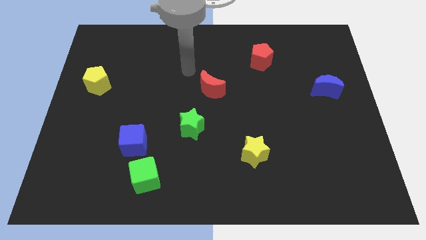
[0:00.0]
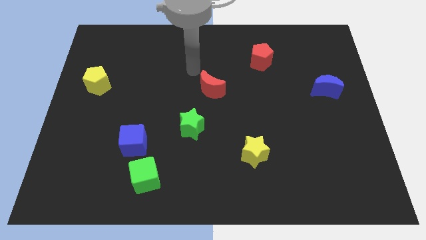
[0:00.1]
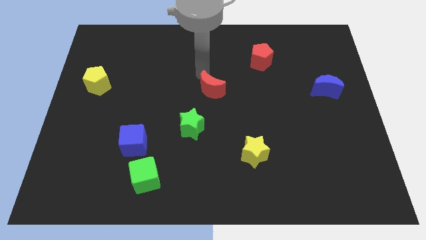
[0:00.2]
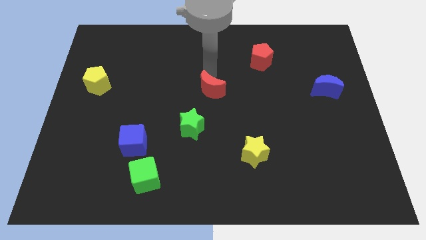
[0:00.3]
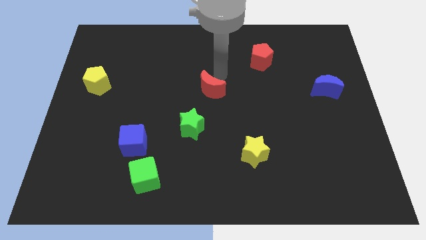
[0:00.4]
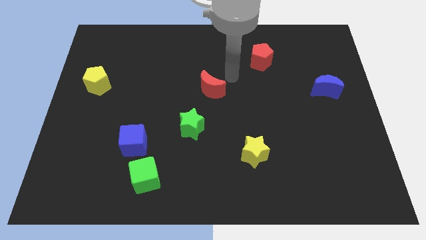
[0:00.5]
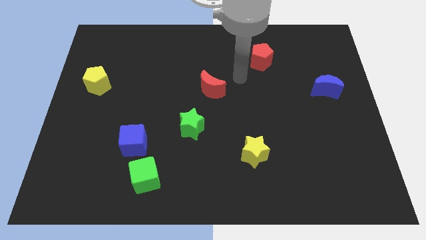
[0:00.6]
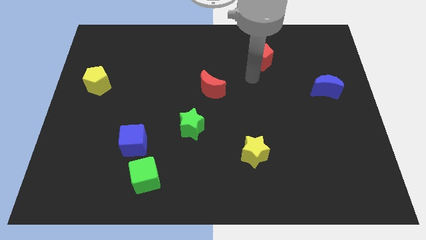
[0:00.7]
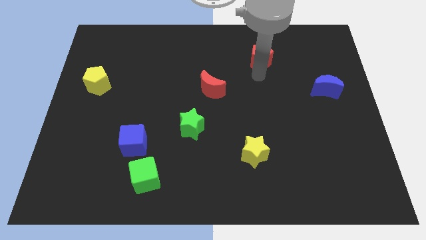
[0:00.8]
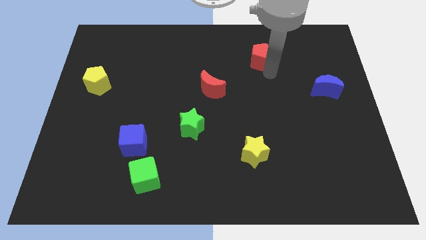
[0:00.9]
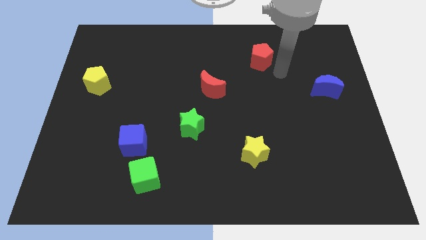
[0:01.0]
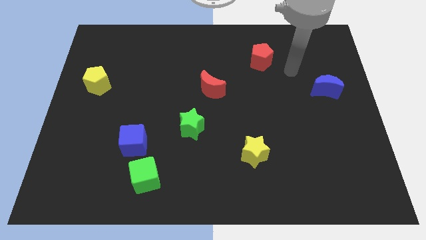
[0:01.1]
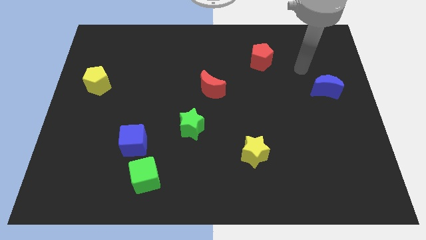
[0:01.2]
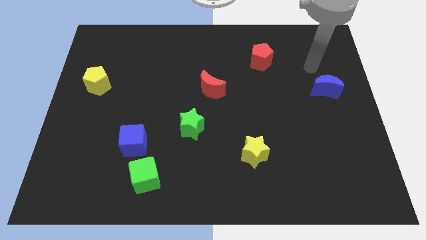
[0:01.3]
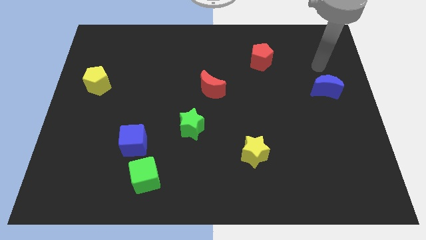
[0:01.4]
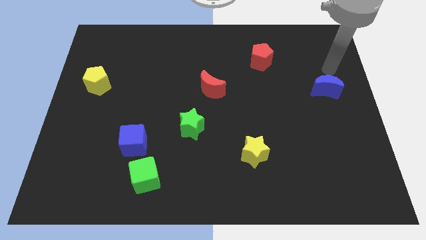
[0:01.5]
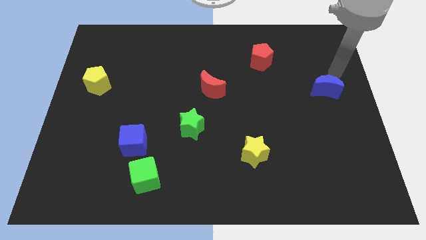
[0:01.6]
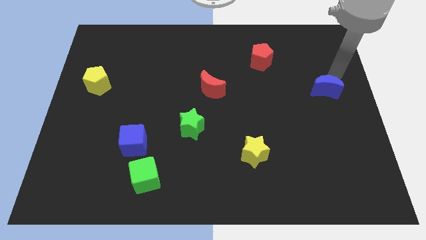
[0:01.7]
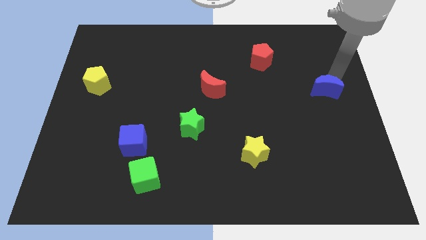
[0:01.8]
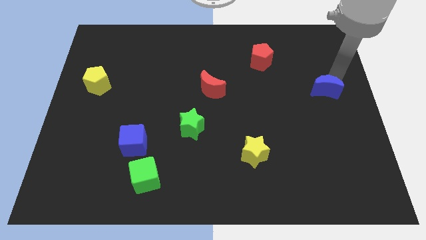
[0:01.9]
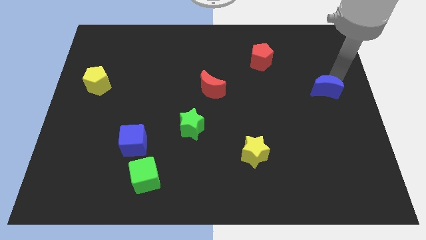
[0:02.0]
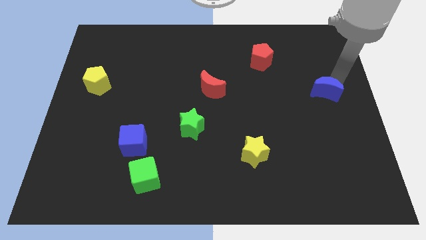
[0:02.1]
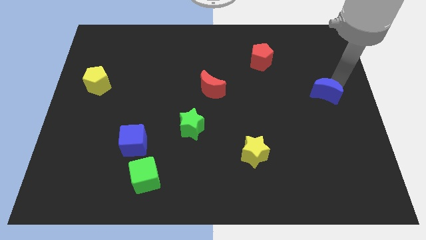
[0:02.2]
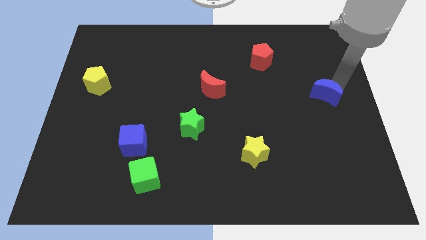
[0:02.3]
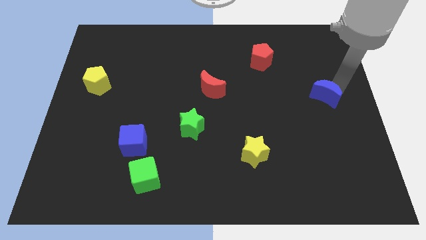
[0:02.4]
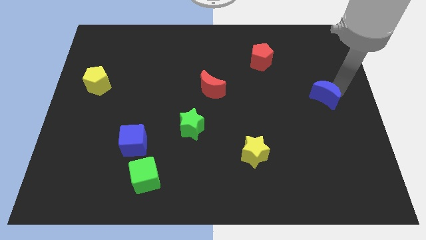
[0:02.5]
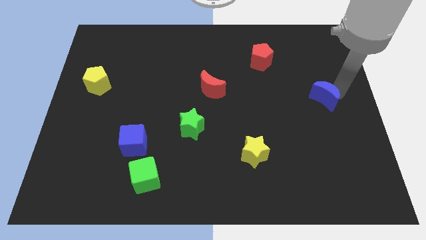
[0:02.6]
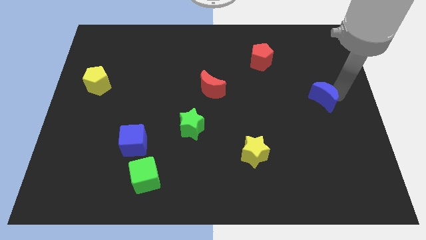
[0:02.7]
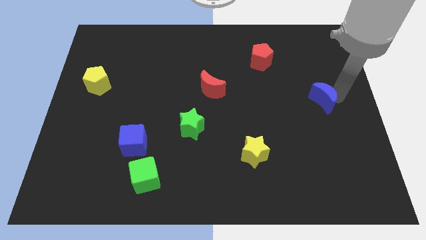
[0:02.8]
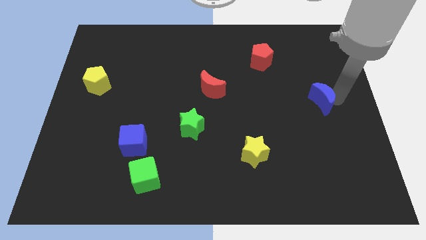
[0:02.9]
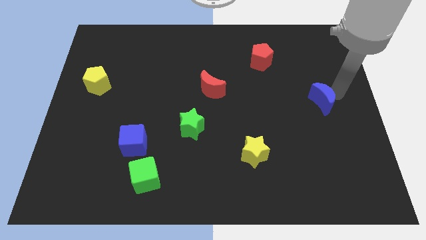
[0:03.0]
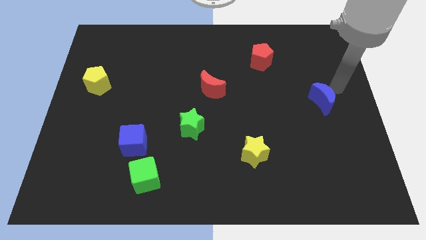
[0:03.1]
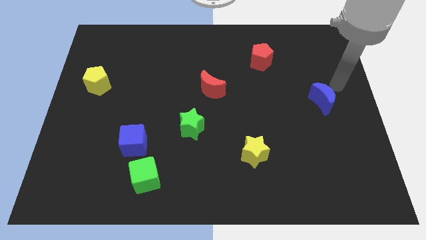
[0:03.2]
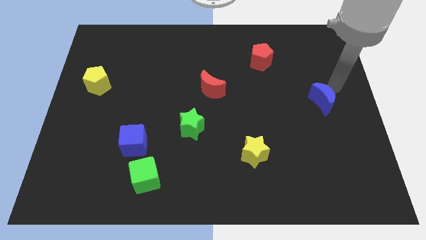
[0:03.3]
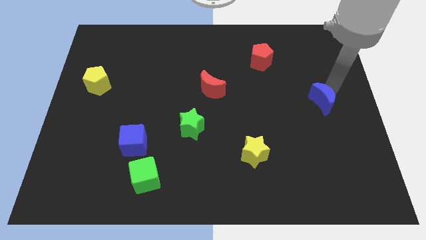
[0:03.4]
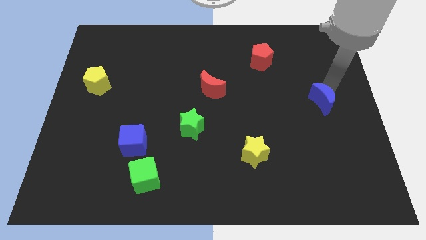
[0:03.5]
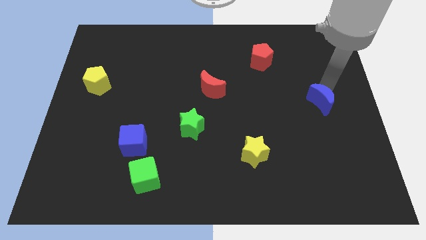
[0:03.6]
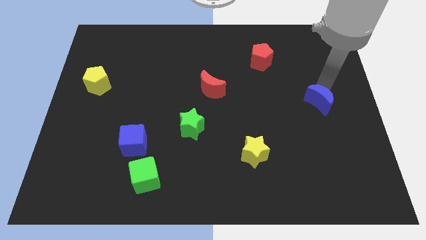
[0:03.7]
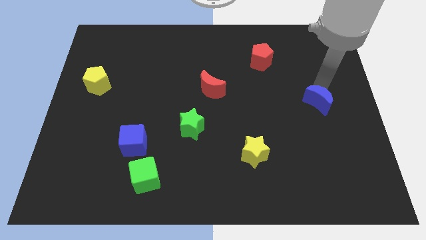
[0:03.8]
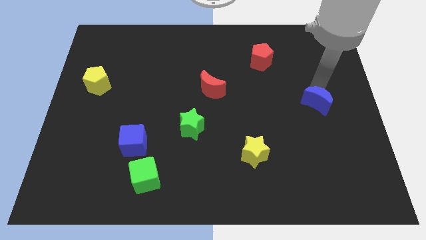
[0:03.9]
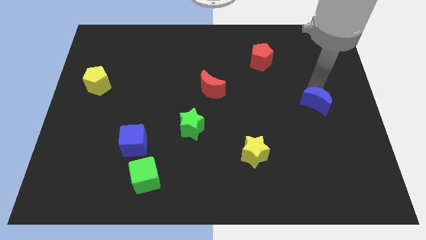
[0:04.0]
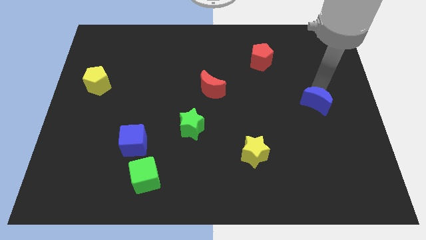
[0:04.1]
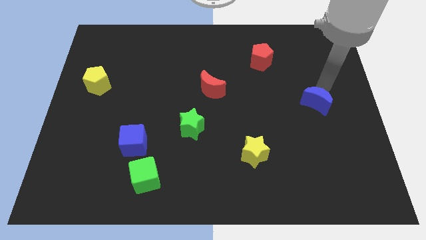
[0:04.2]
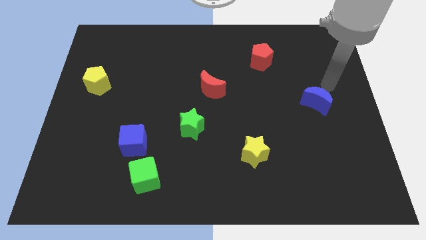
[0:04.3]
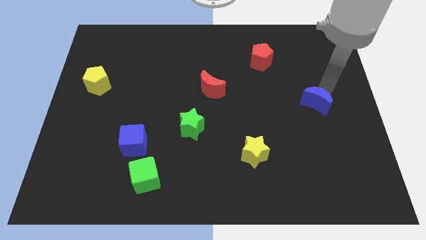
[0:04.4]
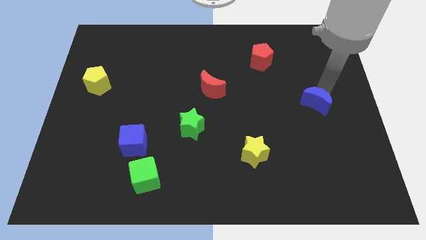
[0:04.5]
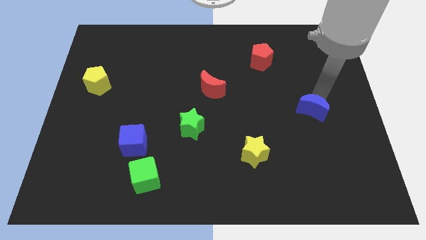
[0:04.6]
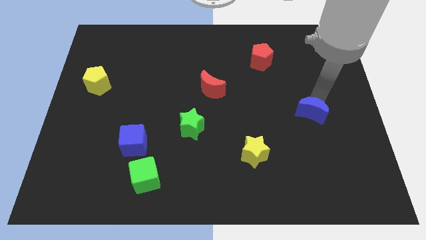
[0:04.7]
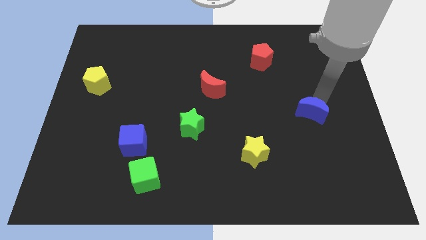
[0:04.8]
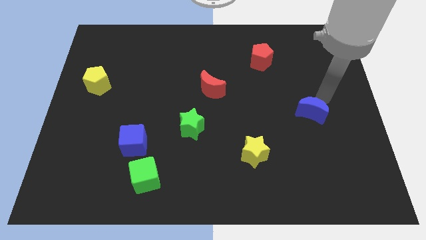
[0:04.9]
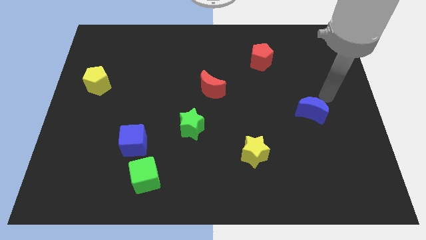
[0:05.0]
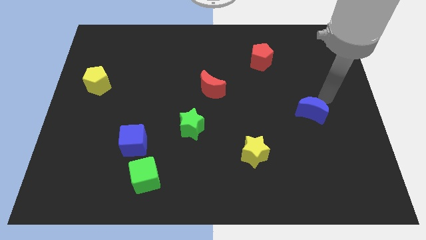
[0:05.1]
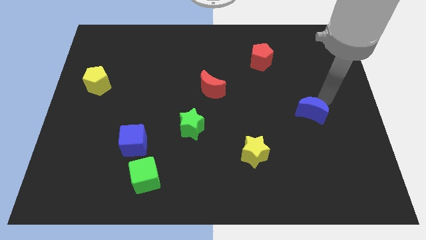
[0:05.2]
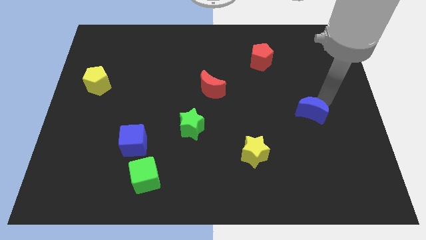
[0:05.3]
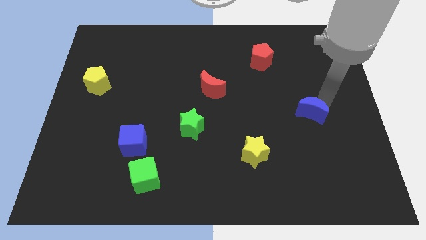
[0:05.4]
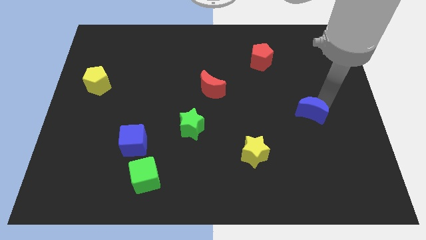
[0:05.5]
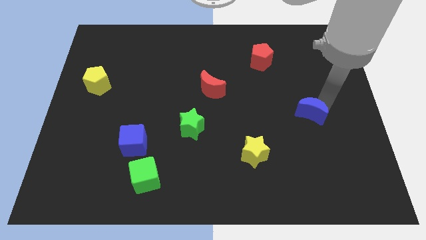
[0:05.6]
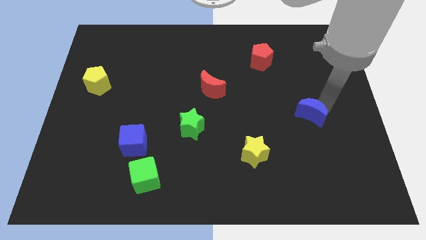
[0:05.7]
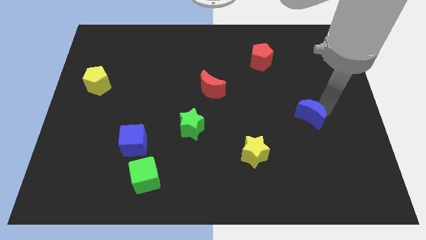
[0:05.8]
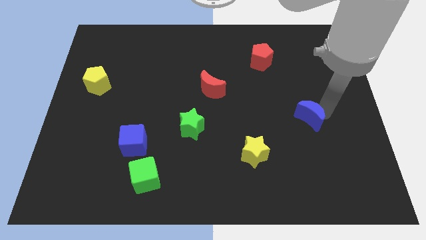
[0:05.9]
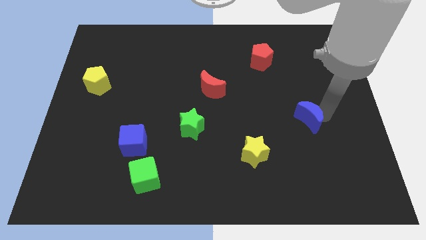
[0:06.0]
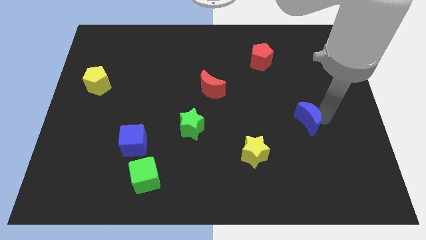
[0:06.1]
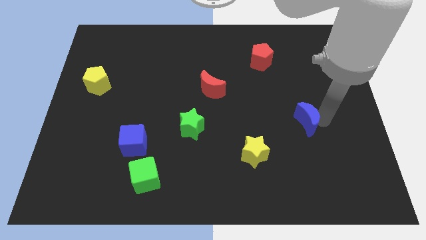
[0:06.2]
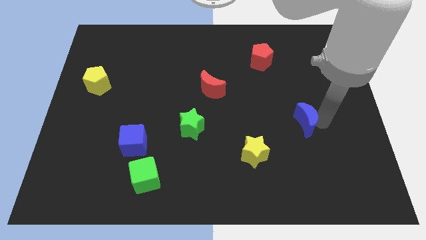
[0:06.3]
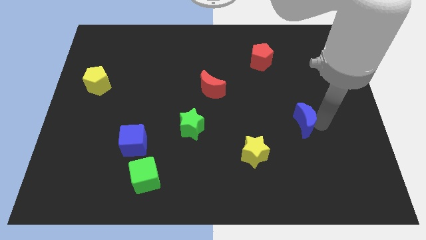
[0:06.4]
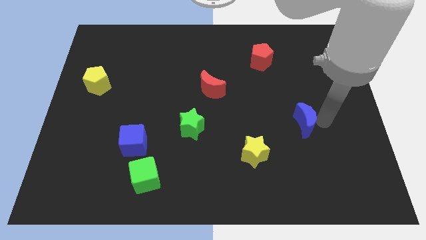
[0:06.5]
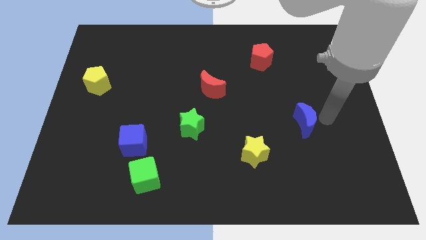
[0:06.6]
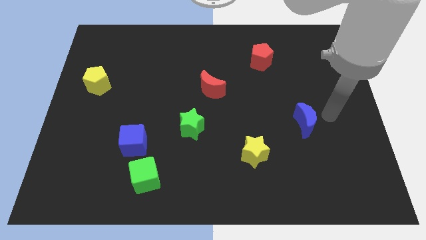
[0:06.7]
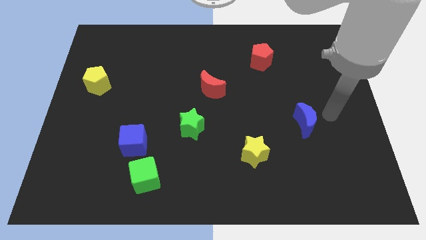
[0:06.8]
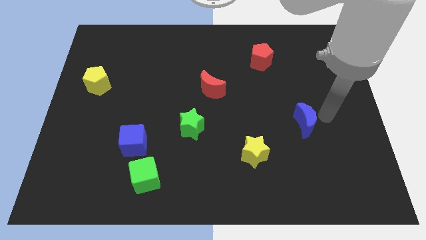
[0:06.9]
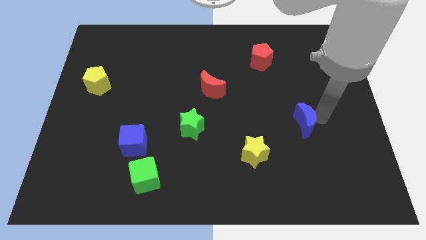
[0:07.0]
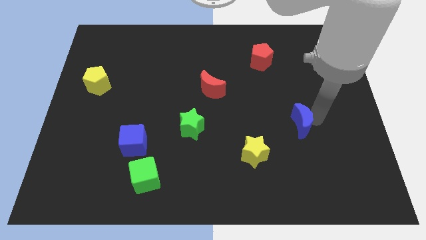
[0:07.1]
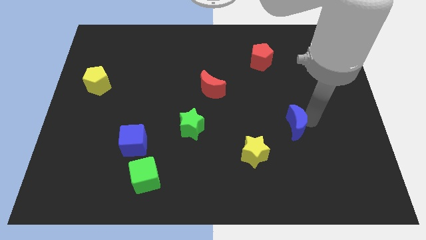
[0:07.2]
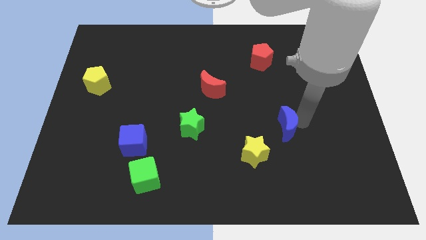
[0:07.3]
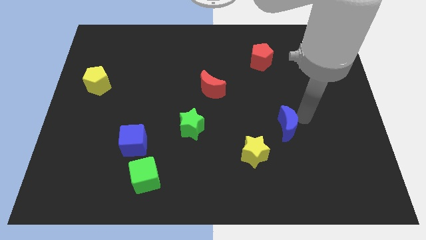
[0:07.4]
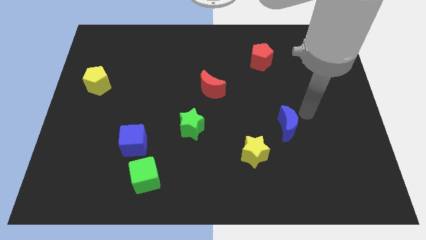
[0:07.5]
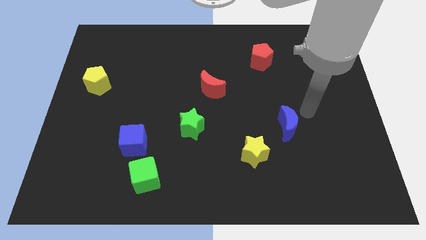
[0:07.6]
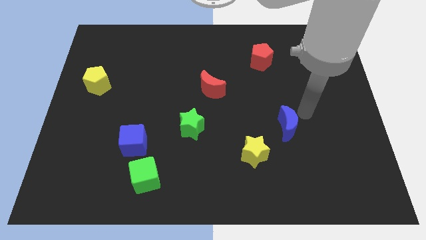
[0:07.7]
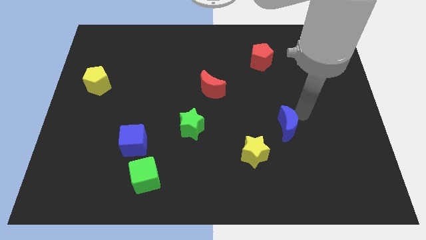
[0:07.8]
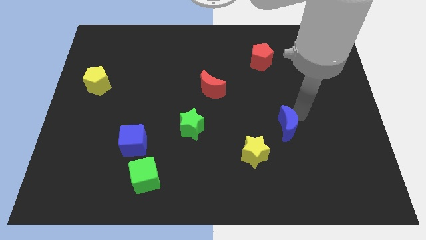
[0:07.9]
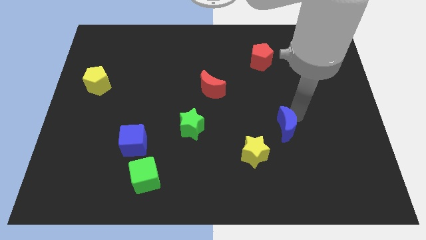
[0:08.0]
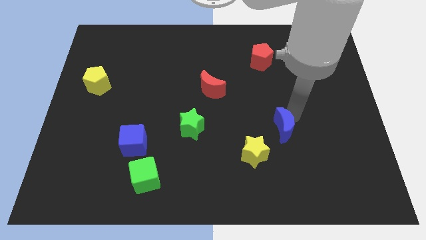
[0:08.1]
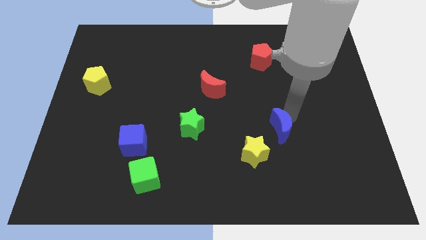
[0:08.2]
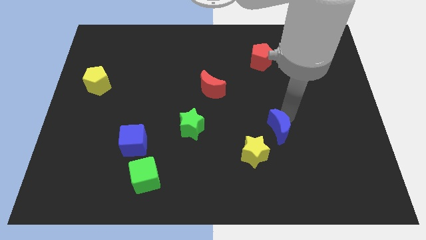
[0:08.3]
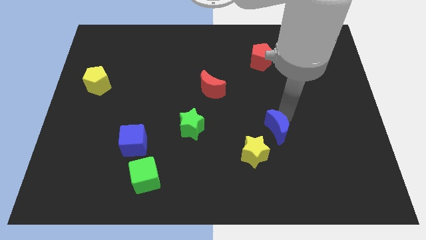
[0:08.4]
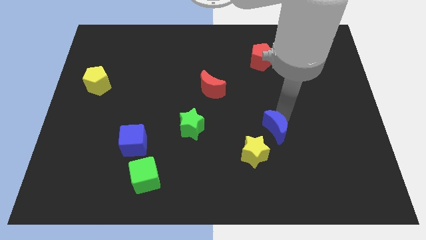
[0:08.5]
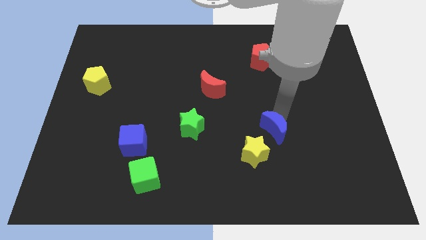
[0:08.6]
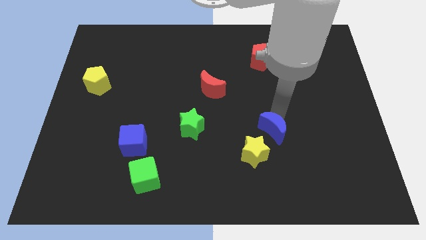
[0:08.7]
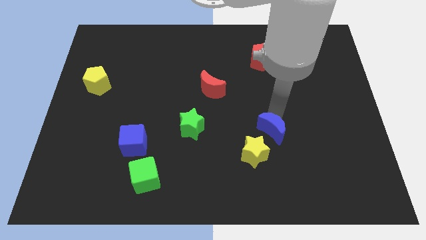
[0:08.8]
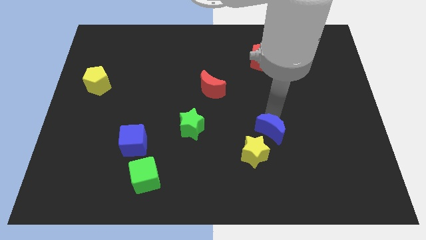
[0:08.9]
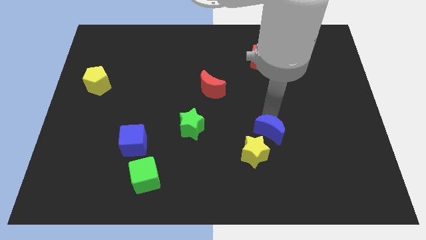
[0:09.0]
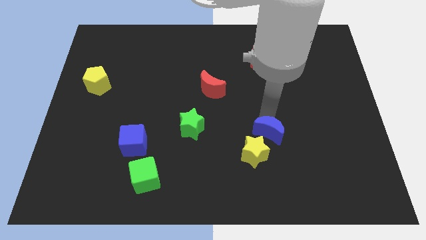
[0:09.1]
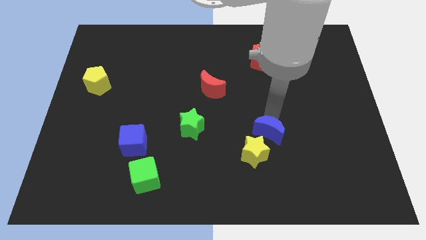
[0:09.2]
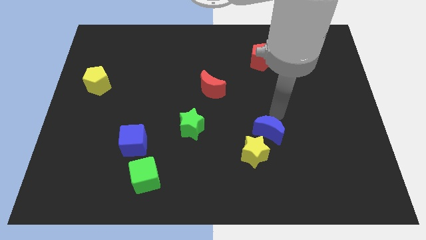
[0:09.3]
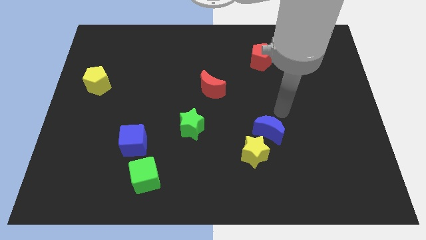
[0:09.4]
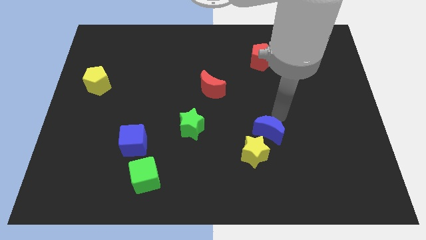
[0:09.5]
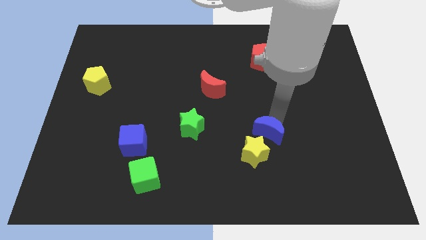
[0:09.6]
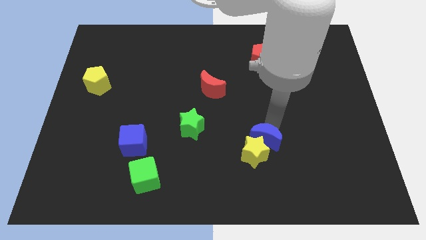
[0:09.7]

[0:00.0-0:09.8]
slide the blue moon next to the yellow star
